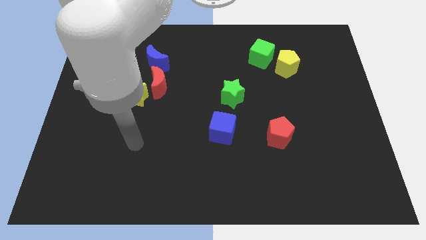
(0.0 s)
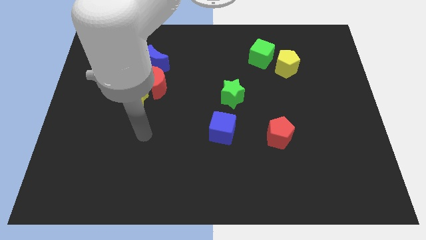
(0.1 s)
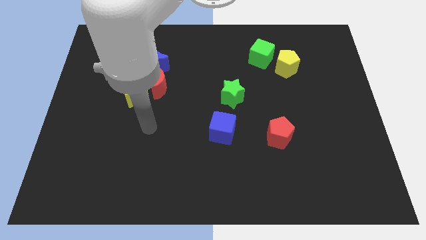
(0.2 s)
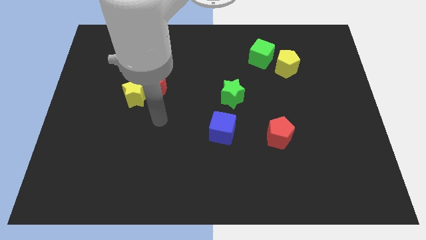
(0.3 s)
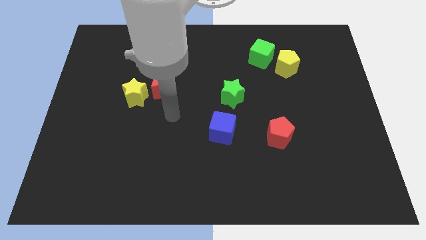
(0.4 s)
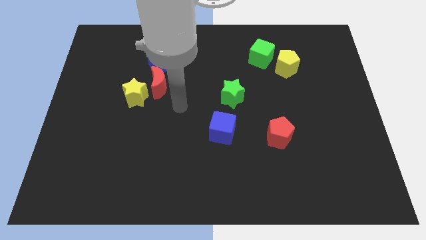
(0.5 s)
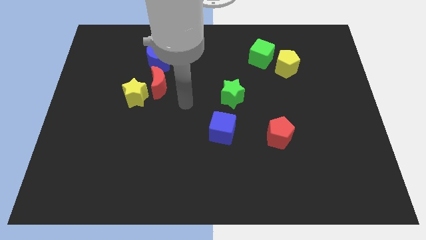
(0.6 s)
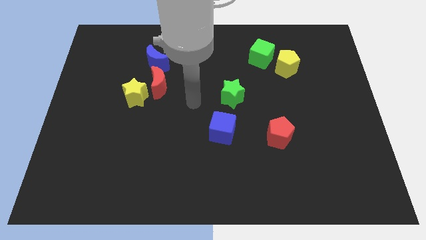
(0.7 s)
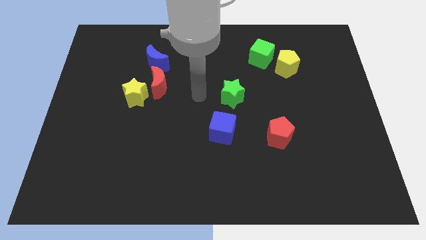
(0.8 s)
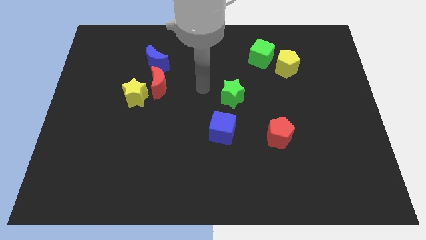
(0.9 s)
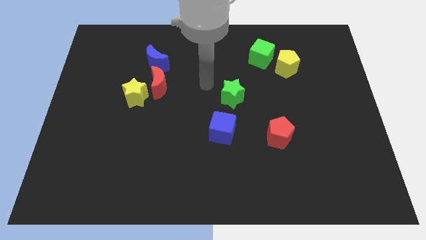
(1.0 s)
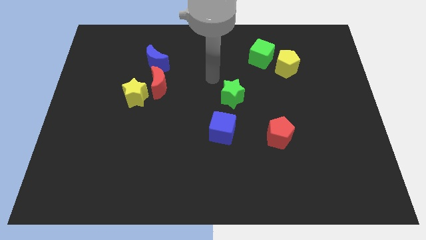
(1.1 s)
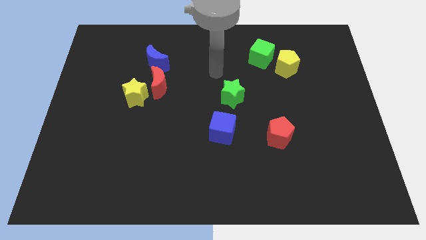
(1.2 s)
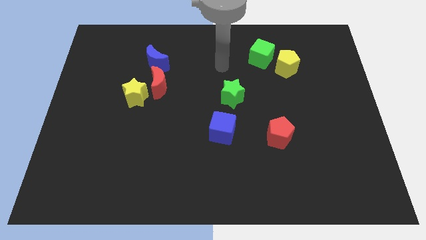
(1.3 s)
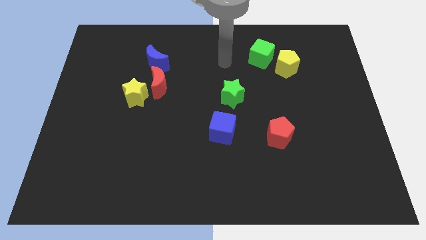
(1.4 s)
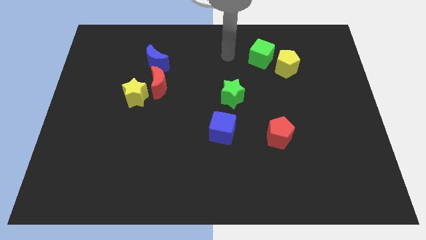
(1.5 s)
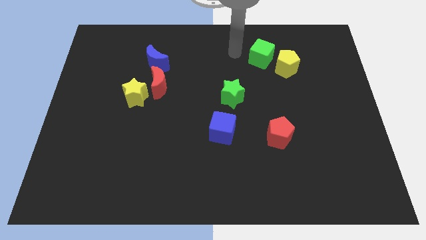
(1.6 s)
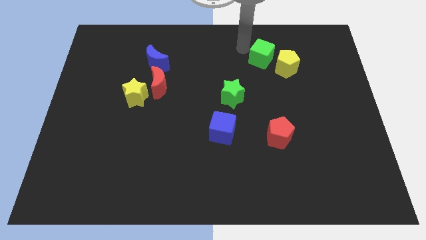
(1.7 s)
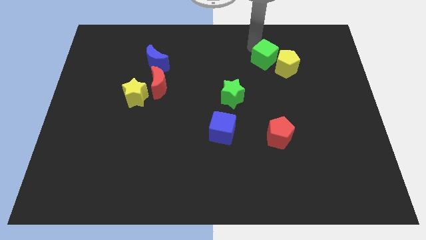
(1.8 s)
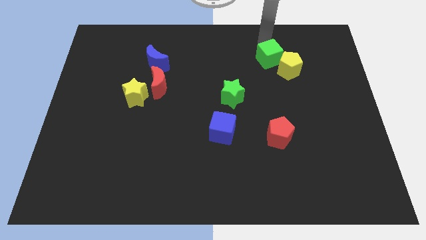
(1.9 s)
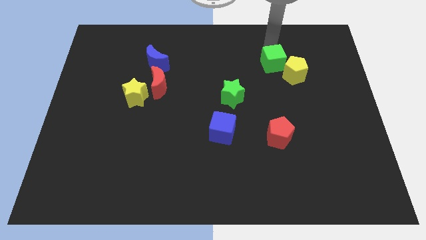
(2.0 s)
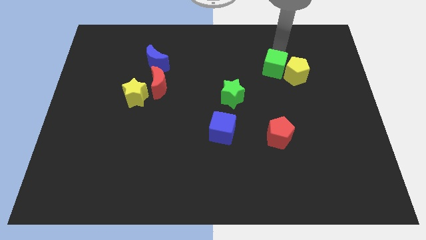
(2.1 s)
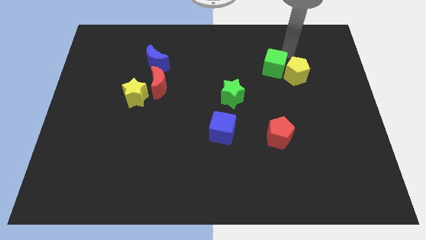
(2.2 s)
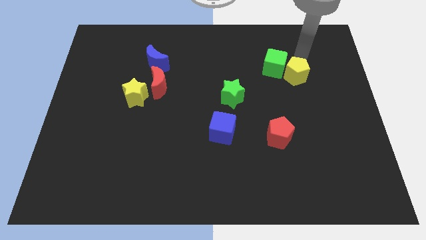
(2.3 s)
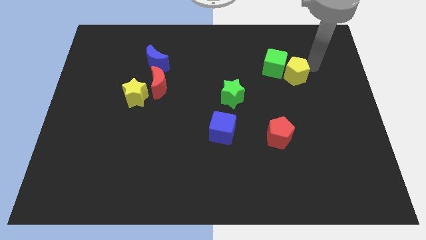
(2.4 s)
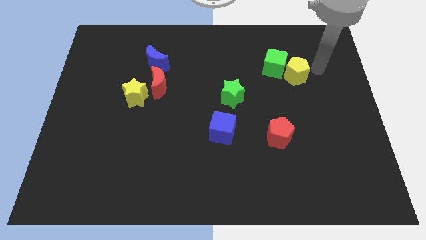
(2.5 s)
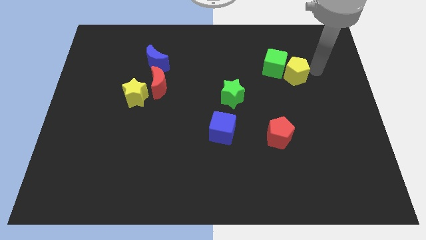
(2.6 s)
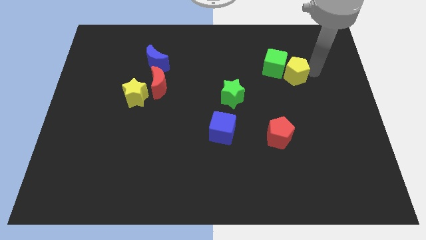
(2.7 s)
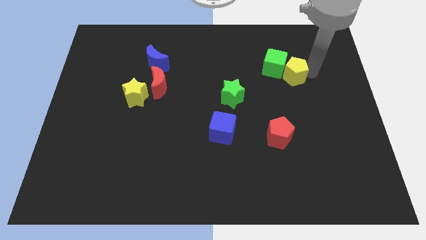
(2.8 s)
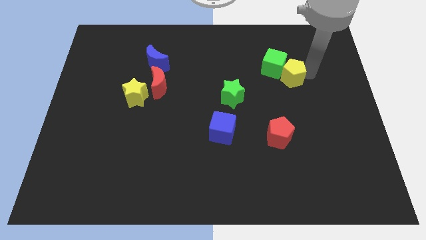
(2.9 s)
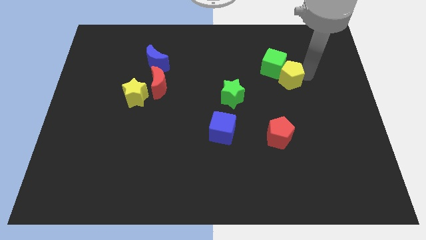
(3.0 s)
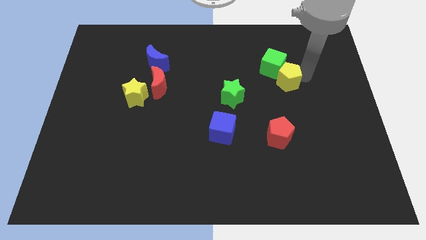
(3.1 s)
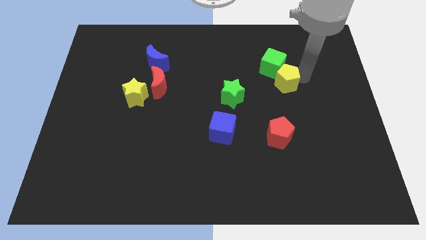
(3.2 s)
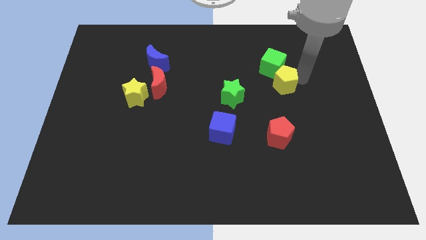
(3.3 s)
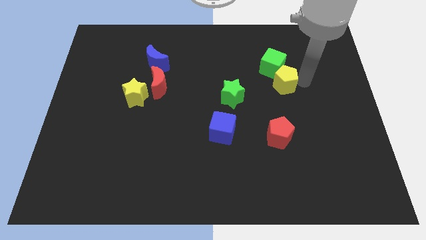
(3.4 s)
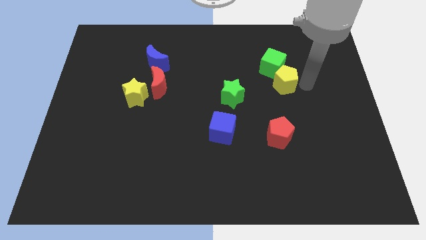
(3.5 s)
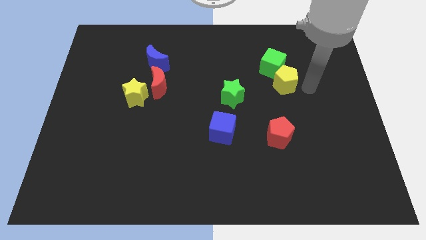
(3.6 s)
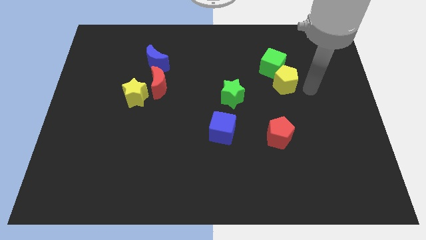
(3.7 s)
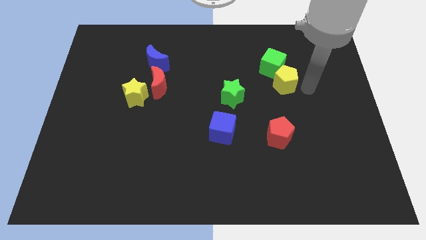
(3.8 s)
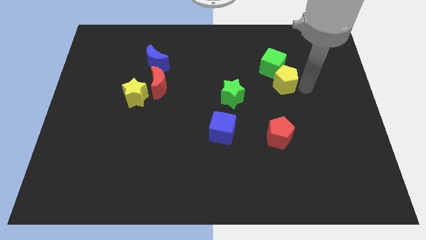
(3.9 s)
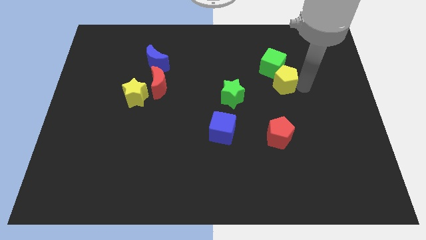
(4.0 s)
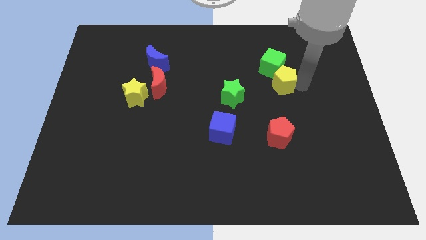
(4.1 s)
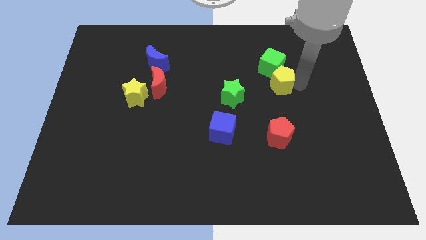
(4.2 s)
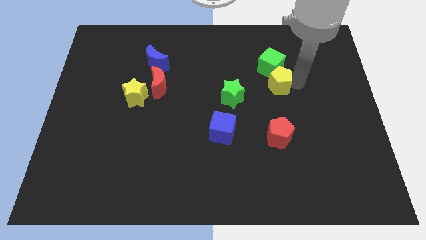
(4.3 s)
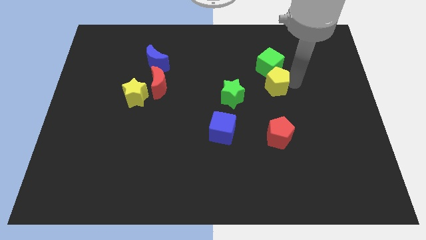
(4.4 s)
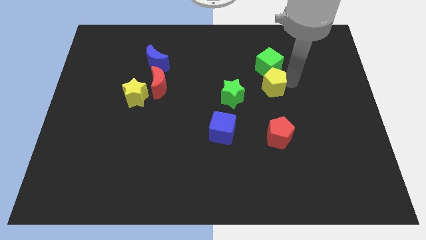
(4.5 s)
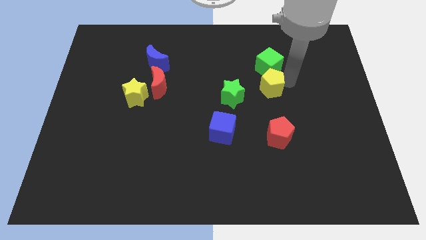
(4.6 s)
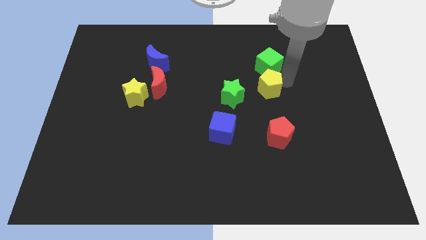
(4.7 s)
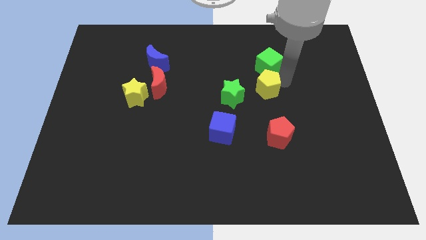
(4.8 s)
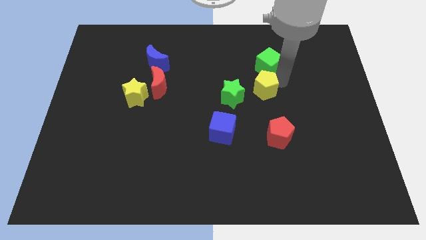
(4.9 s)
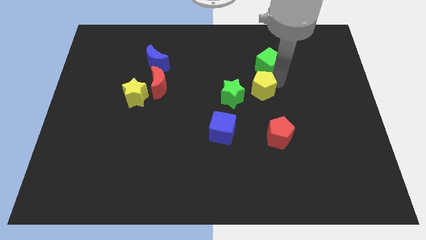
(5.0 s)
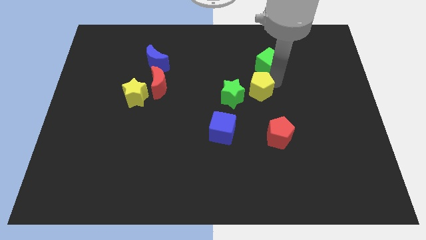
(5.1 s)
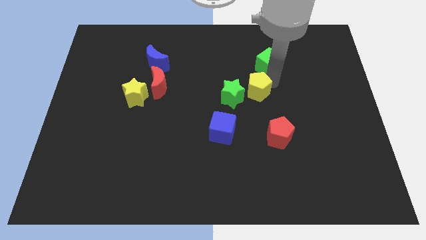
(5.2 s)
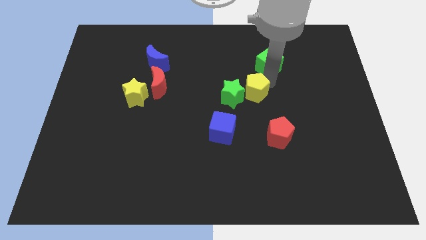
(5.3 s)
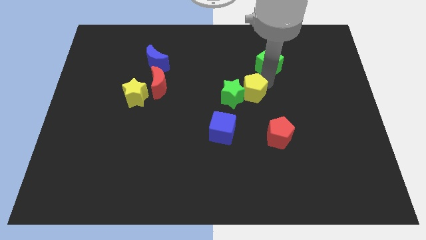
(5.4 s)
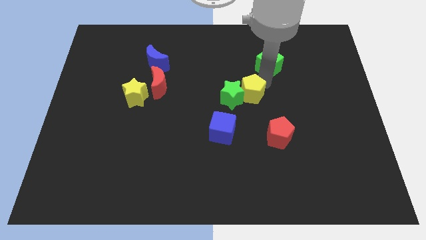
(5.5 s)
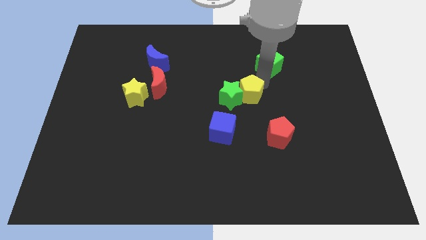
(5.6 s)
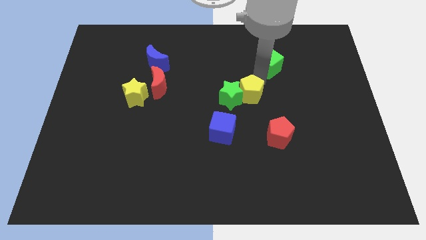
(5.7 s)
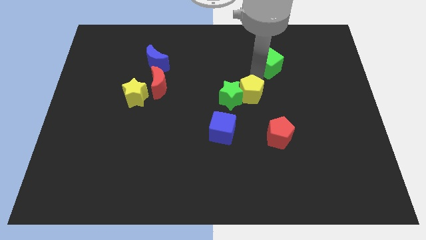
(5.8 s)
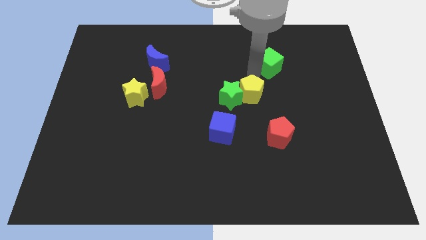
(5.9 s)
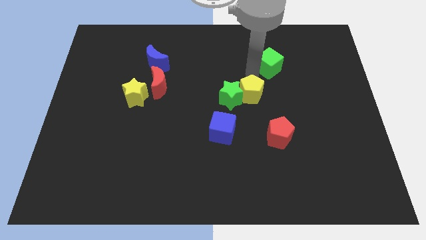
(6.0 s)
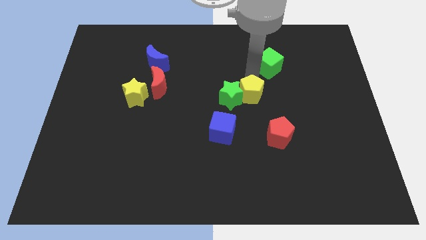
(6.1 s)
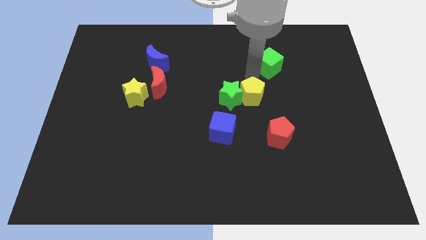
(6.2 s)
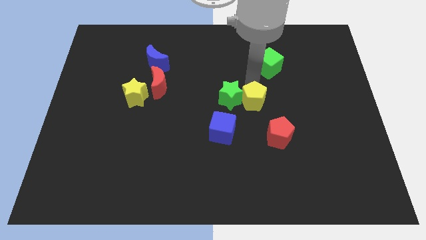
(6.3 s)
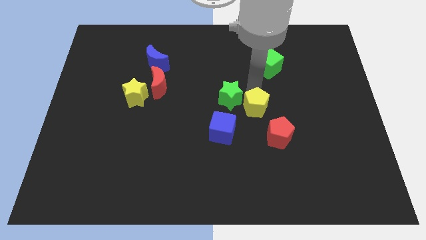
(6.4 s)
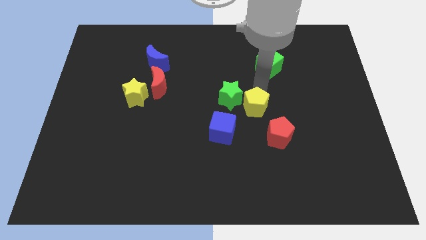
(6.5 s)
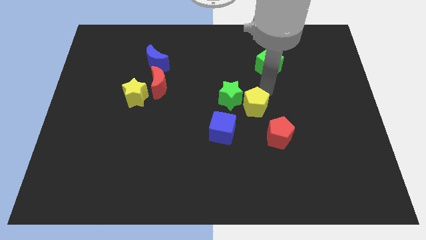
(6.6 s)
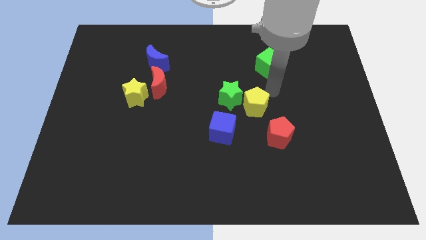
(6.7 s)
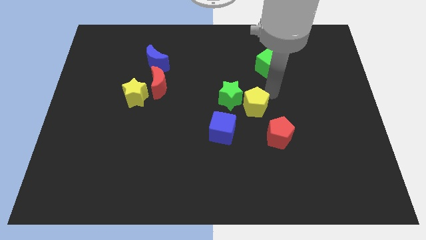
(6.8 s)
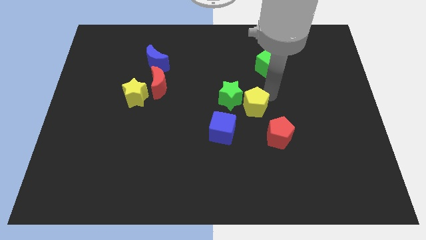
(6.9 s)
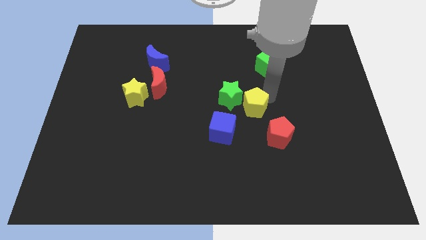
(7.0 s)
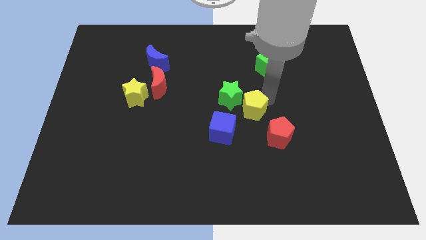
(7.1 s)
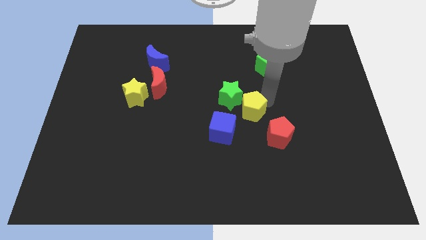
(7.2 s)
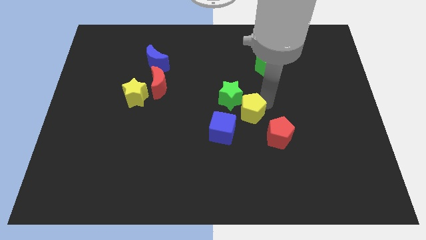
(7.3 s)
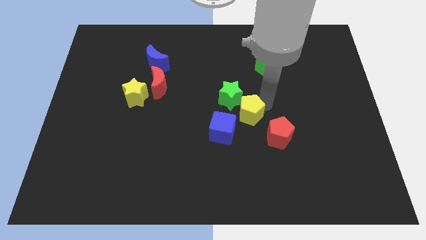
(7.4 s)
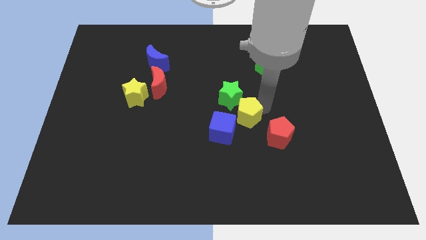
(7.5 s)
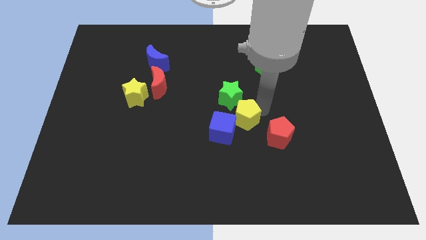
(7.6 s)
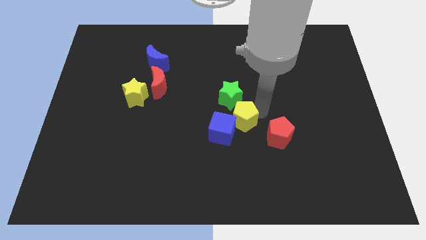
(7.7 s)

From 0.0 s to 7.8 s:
put the yellow pentagon to the blue cube
